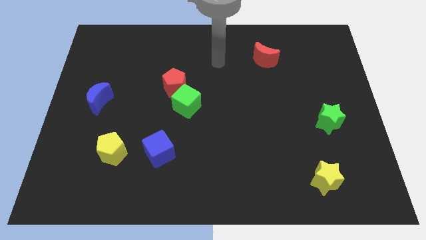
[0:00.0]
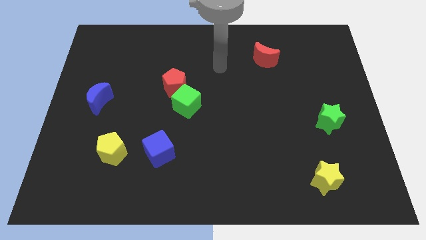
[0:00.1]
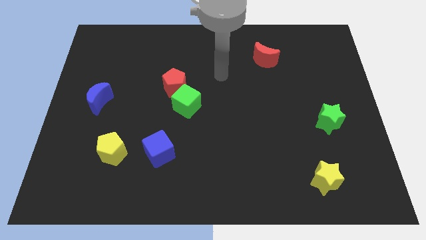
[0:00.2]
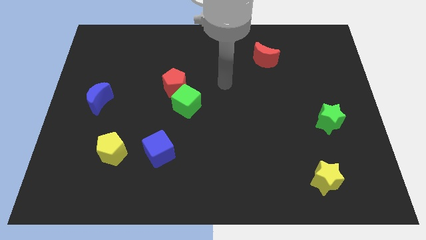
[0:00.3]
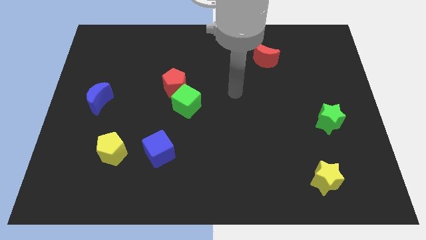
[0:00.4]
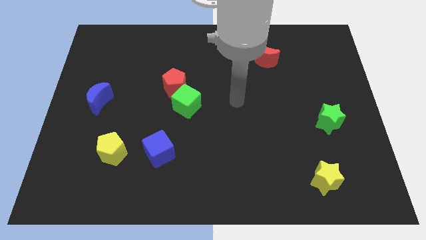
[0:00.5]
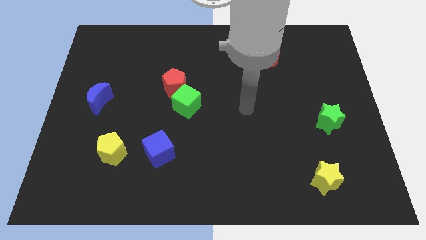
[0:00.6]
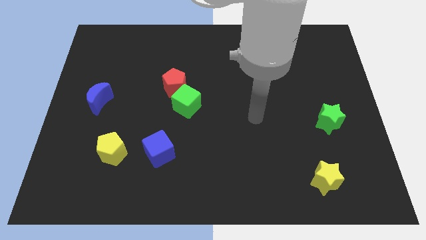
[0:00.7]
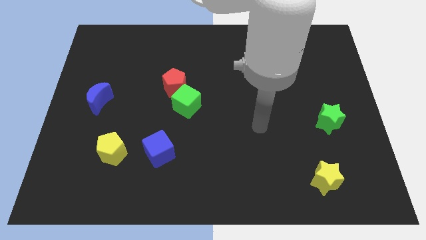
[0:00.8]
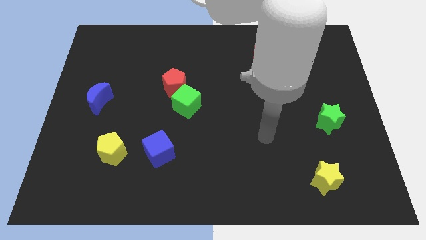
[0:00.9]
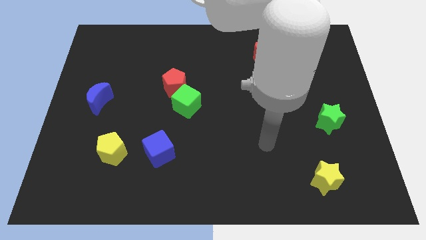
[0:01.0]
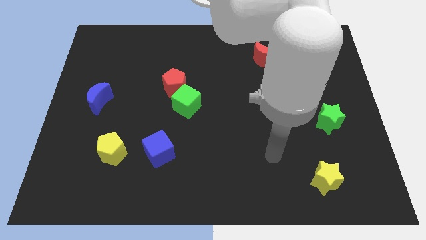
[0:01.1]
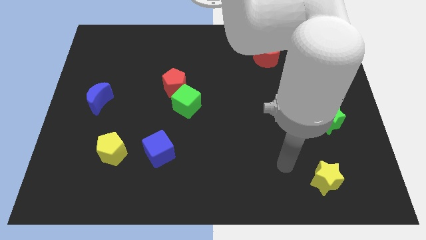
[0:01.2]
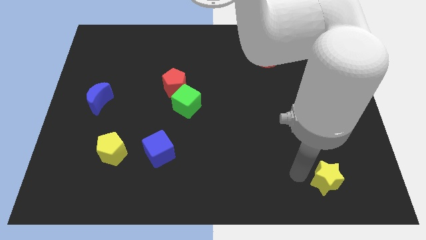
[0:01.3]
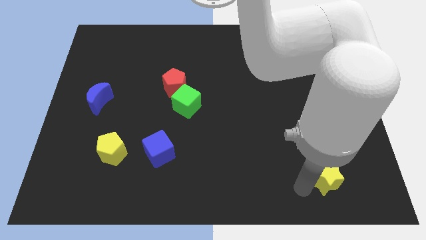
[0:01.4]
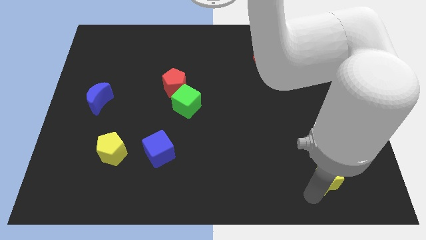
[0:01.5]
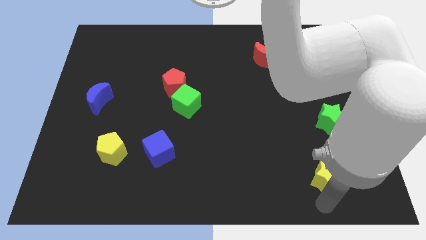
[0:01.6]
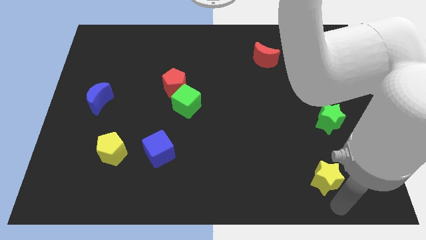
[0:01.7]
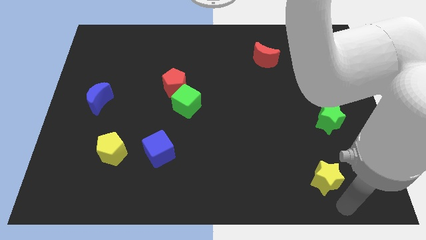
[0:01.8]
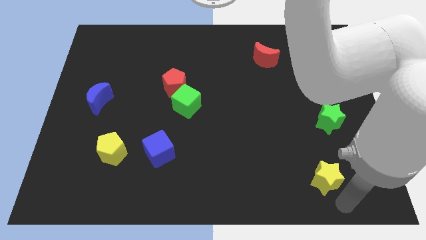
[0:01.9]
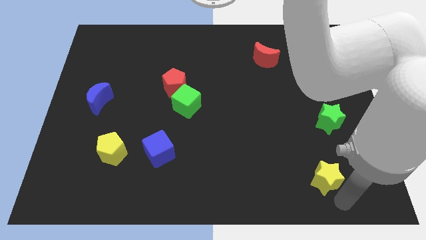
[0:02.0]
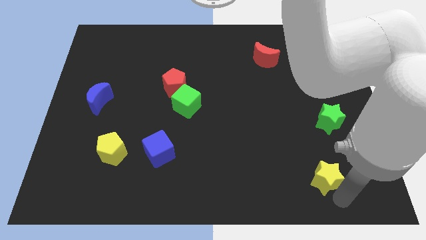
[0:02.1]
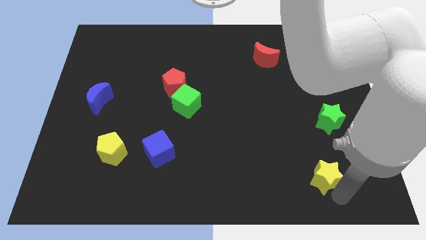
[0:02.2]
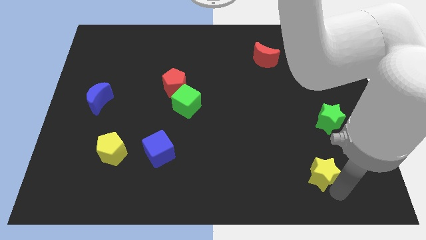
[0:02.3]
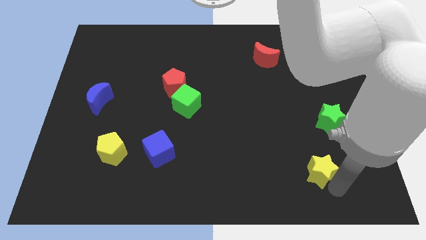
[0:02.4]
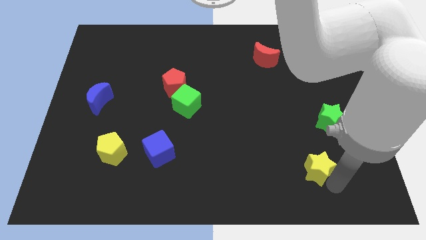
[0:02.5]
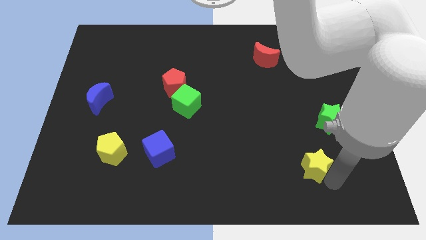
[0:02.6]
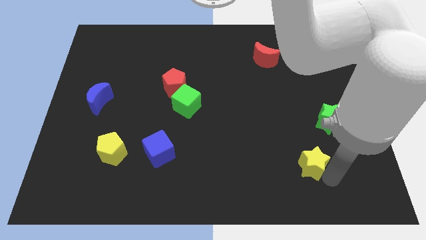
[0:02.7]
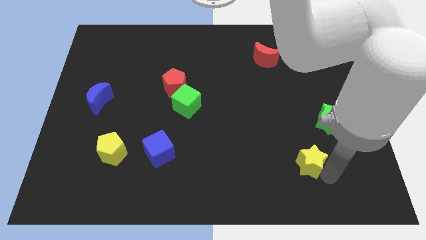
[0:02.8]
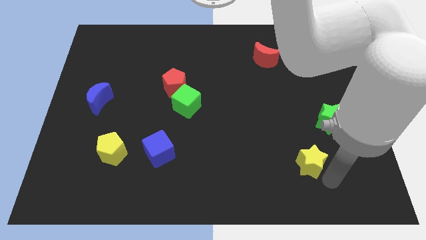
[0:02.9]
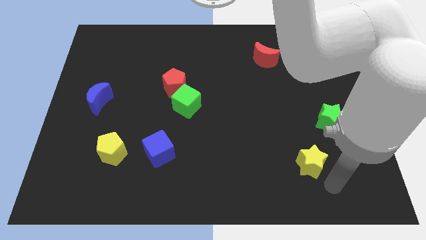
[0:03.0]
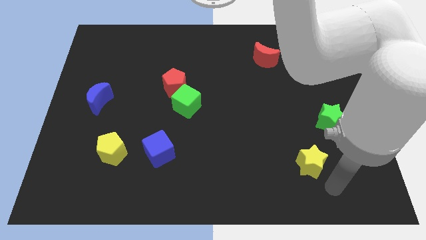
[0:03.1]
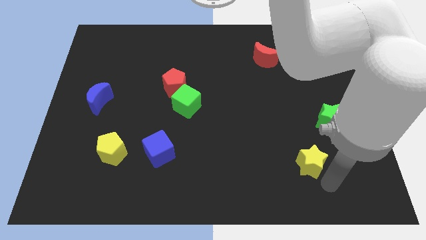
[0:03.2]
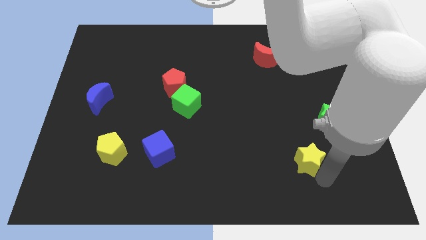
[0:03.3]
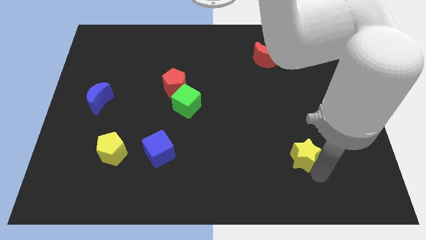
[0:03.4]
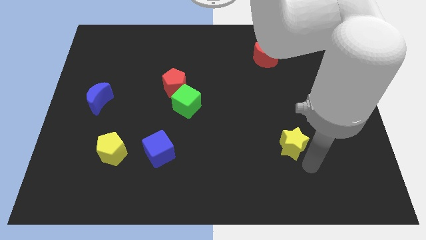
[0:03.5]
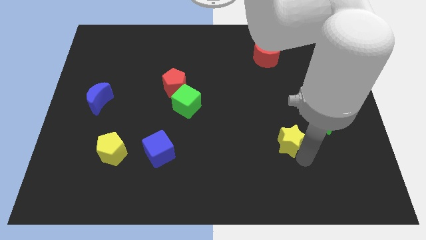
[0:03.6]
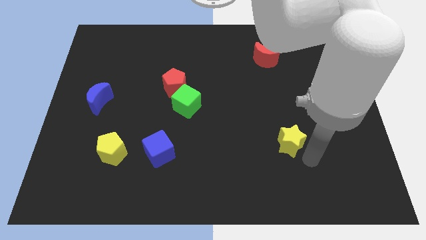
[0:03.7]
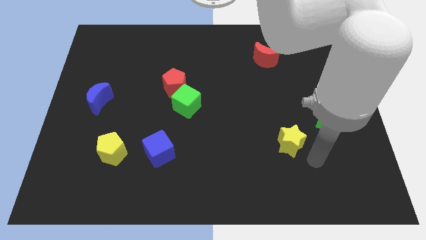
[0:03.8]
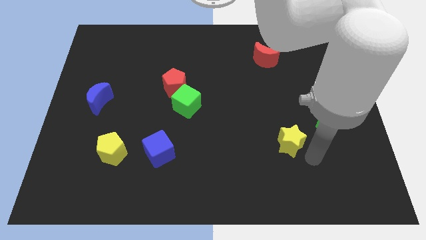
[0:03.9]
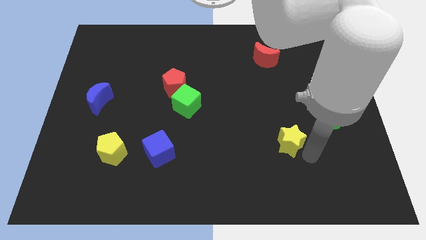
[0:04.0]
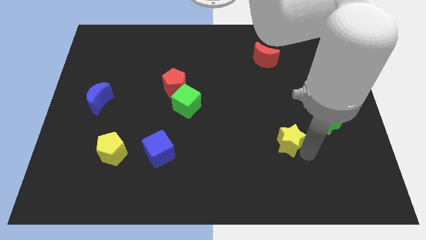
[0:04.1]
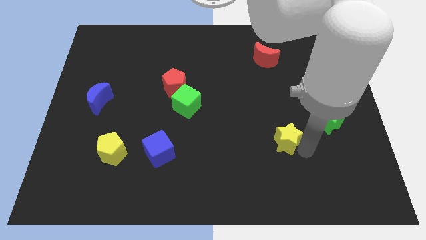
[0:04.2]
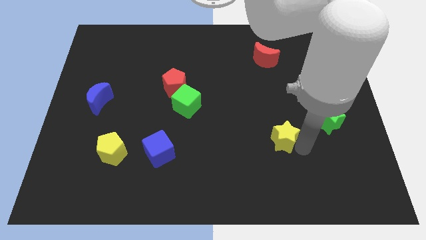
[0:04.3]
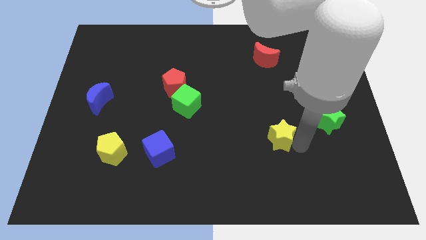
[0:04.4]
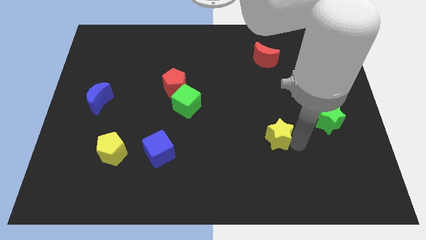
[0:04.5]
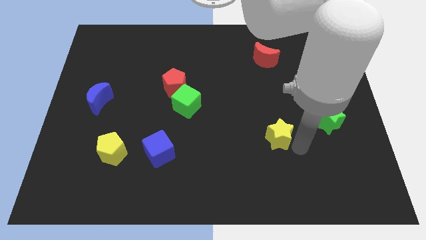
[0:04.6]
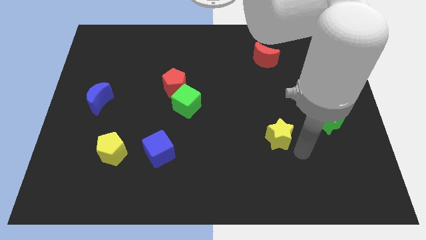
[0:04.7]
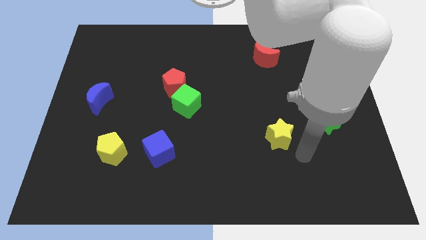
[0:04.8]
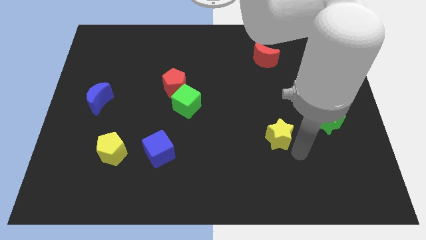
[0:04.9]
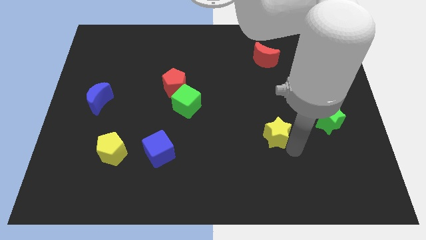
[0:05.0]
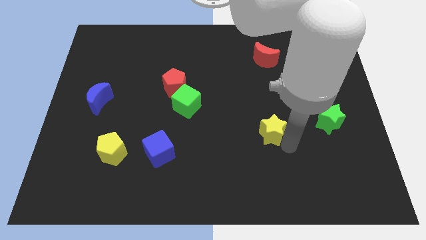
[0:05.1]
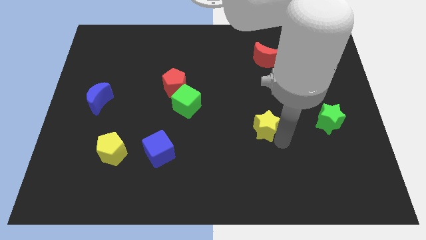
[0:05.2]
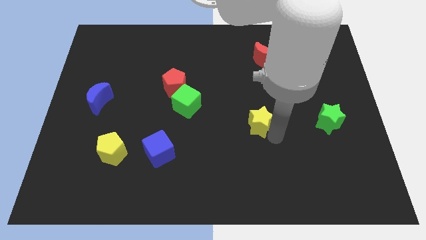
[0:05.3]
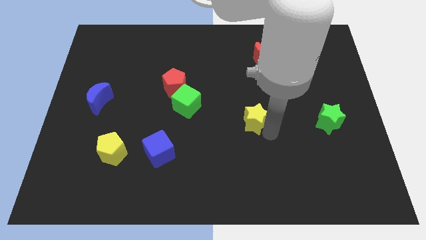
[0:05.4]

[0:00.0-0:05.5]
push the yellow star upwards and to the left diagonally

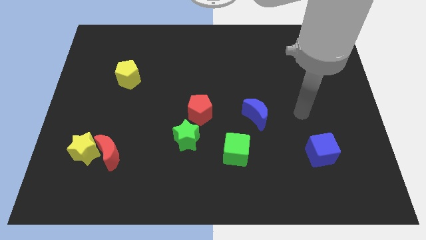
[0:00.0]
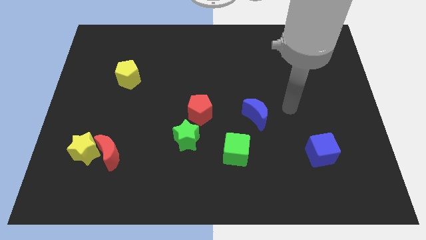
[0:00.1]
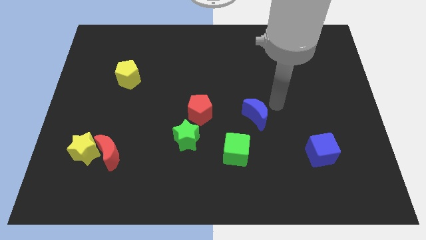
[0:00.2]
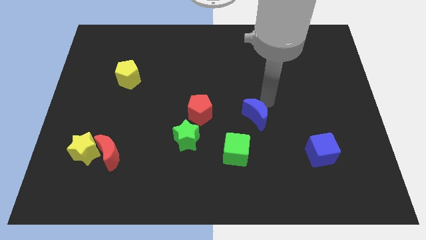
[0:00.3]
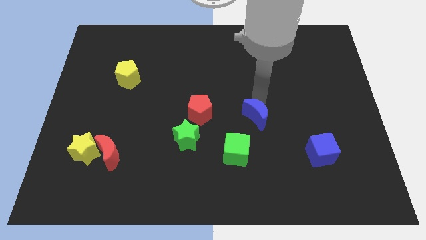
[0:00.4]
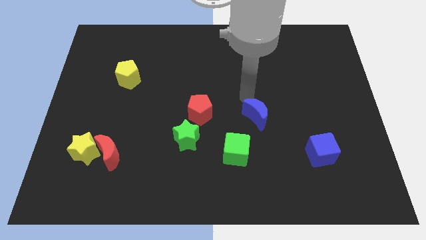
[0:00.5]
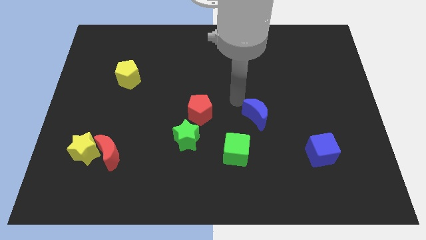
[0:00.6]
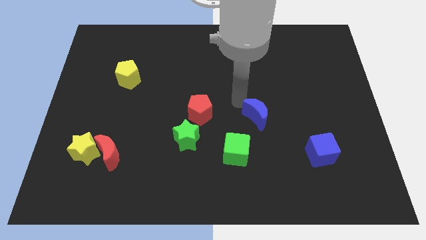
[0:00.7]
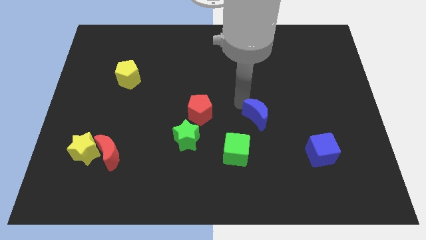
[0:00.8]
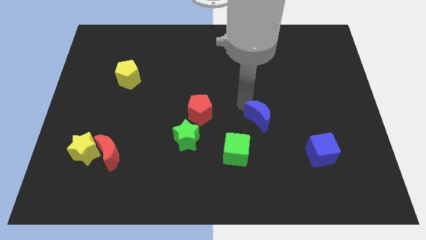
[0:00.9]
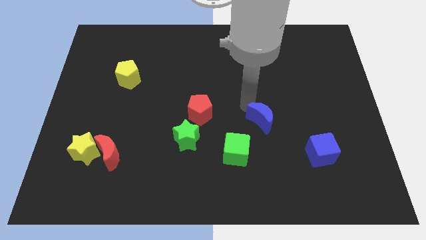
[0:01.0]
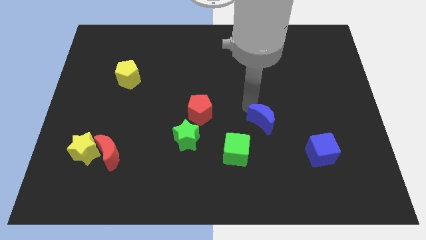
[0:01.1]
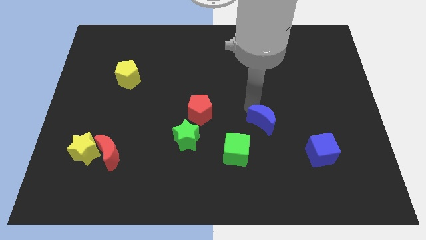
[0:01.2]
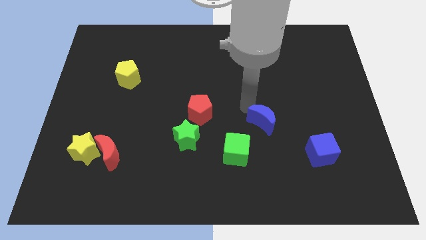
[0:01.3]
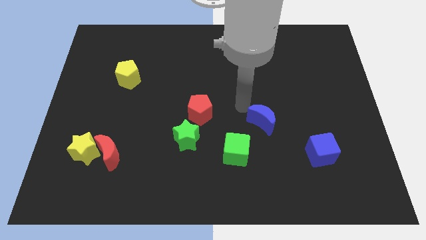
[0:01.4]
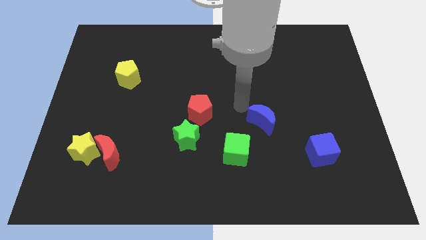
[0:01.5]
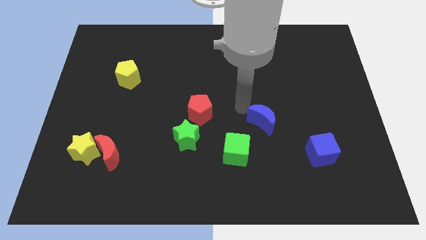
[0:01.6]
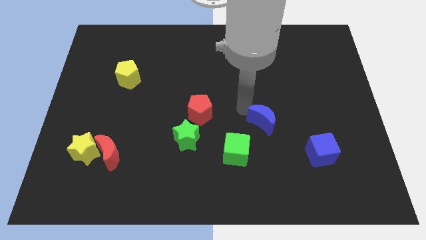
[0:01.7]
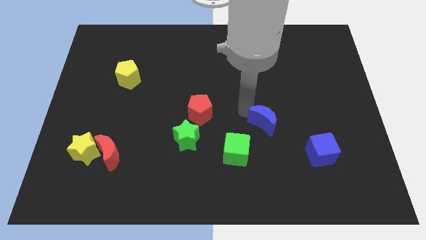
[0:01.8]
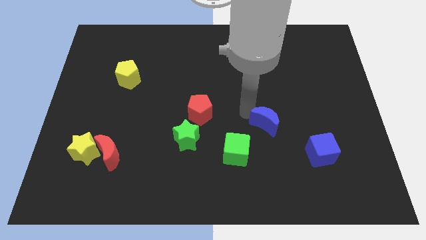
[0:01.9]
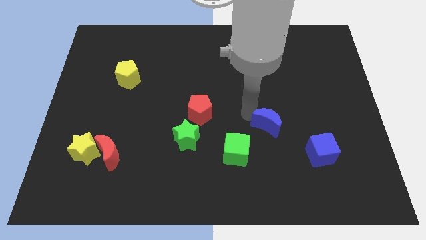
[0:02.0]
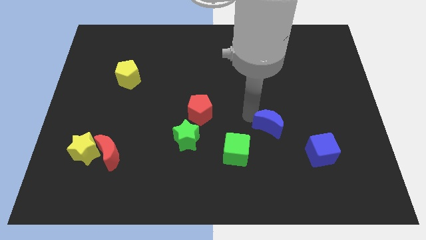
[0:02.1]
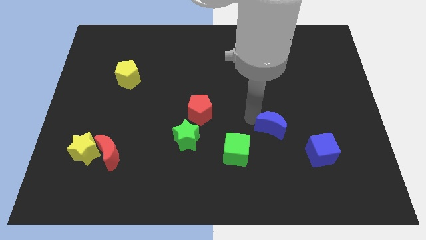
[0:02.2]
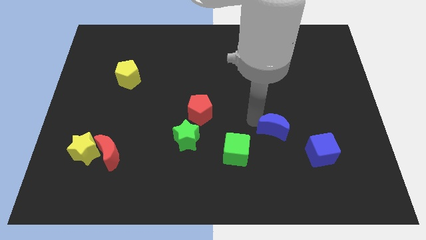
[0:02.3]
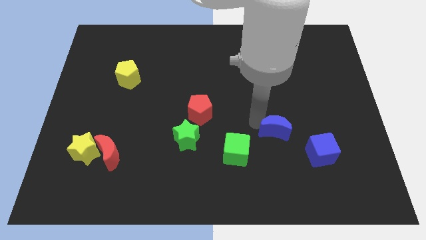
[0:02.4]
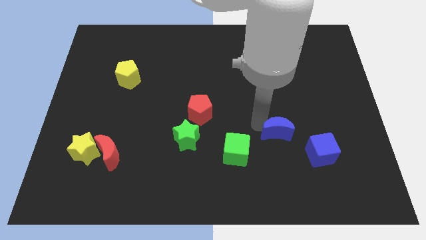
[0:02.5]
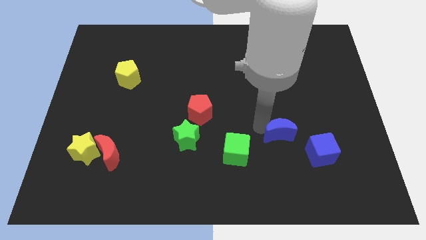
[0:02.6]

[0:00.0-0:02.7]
push the blue moon slightly down and then right
